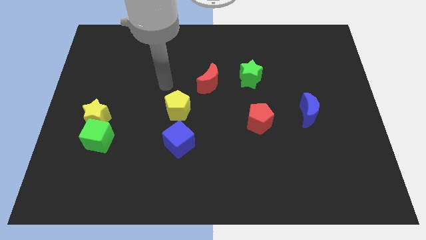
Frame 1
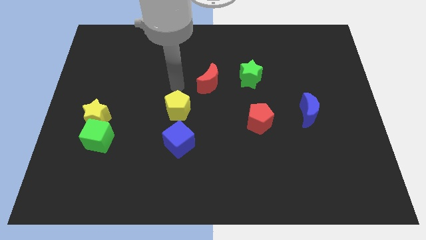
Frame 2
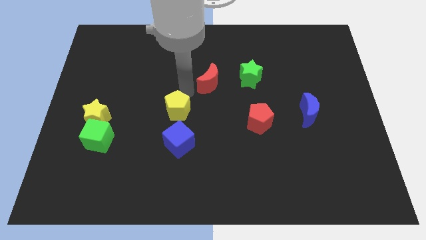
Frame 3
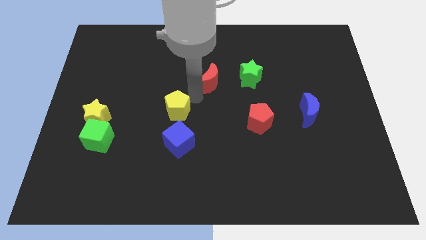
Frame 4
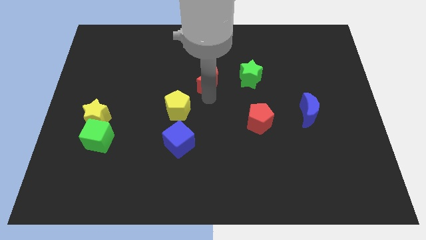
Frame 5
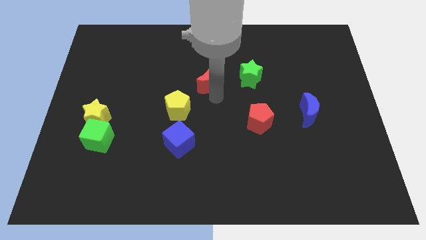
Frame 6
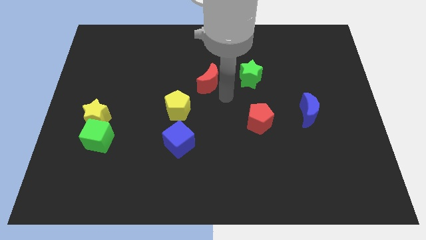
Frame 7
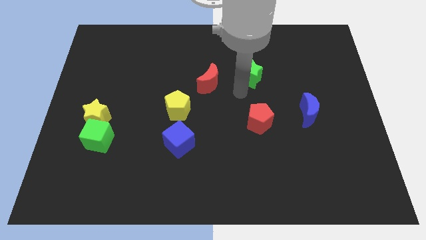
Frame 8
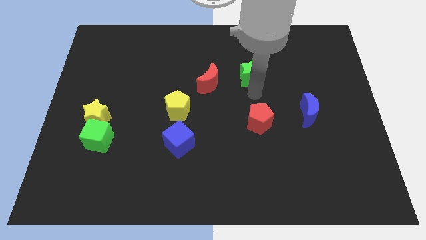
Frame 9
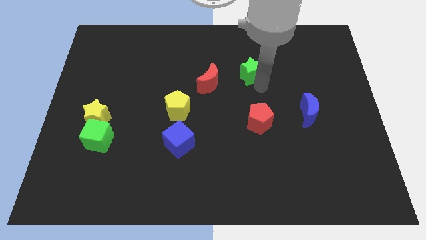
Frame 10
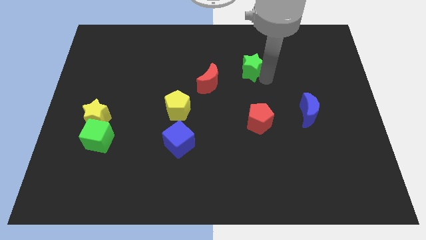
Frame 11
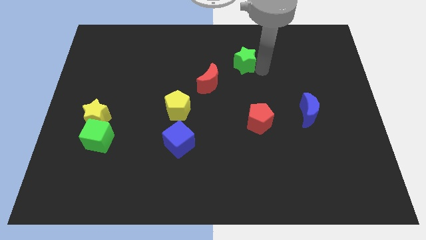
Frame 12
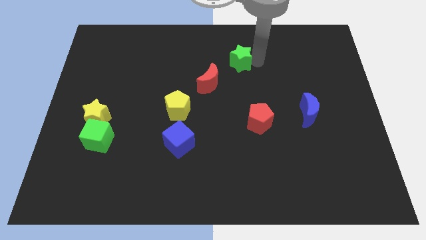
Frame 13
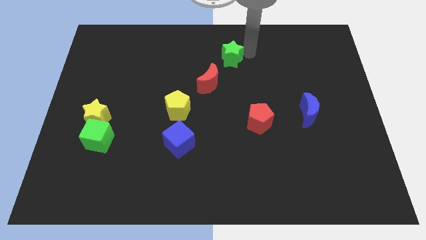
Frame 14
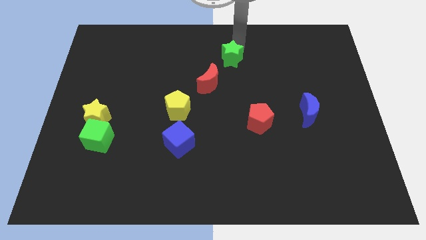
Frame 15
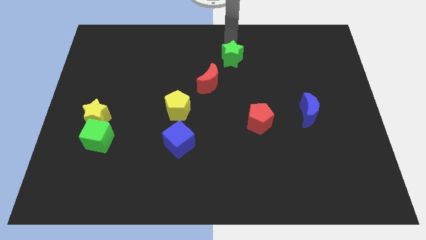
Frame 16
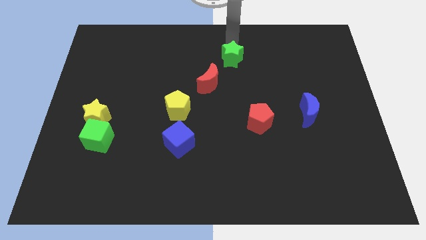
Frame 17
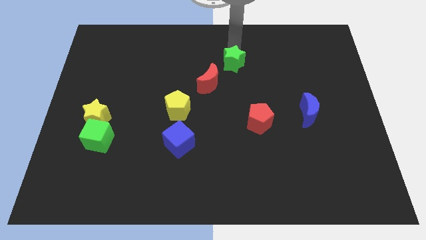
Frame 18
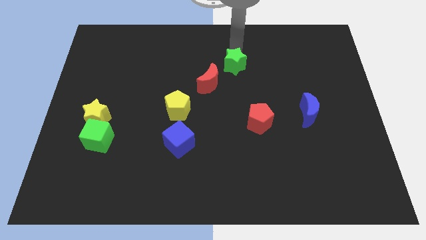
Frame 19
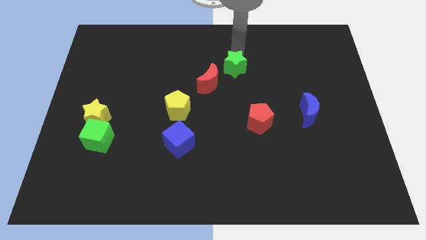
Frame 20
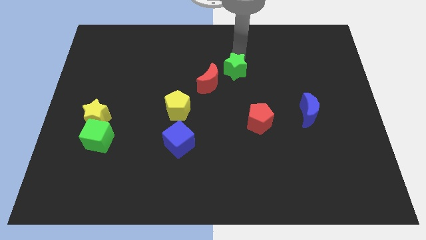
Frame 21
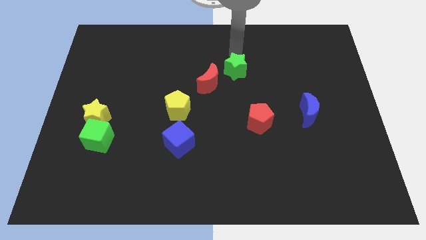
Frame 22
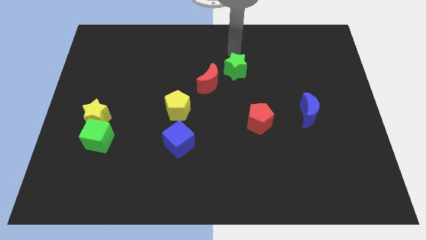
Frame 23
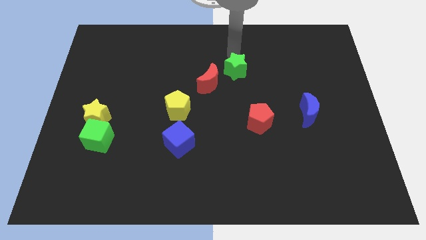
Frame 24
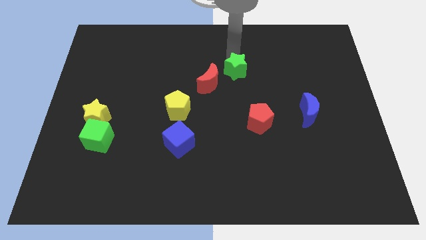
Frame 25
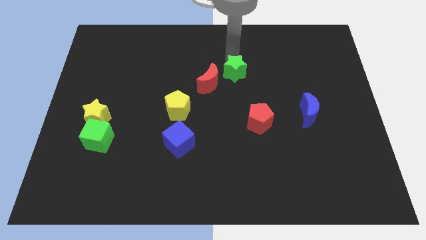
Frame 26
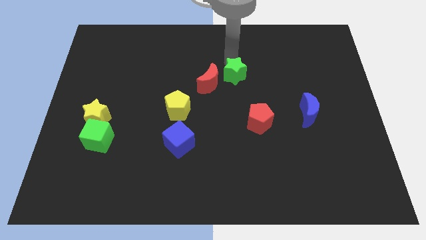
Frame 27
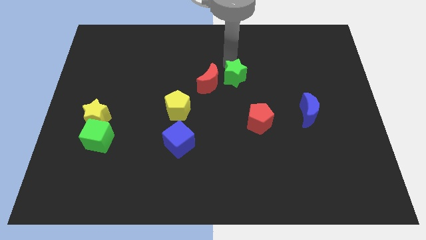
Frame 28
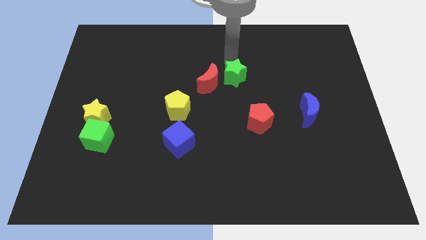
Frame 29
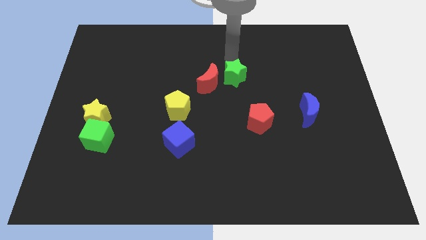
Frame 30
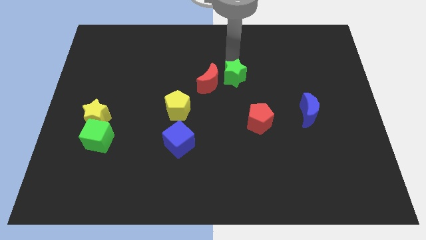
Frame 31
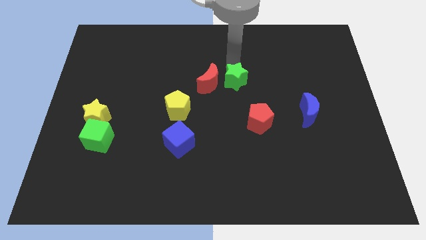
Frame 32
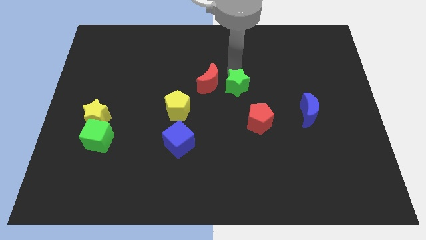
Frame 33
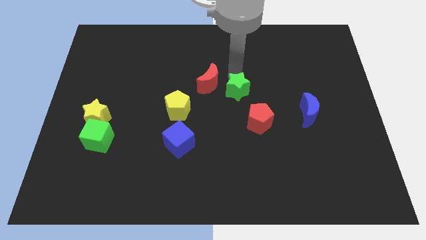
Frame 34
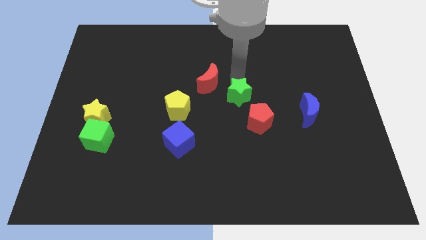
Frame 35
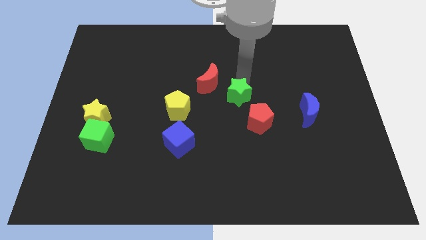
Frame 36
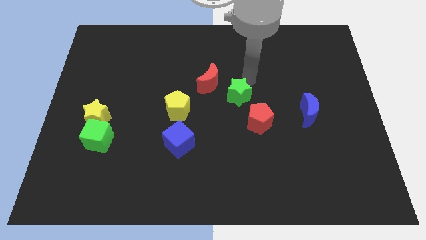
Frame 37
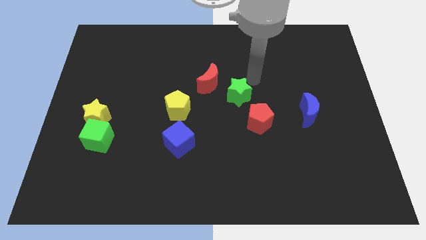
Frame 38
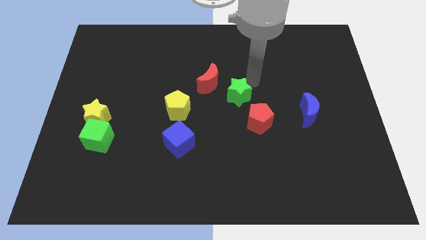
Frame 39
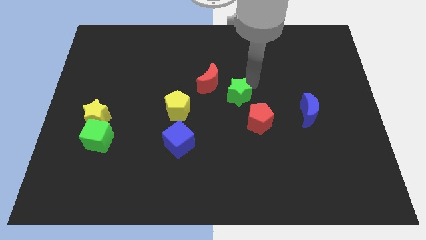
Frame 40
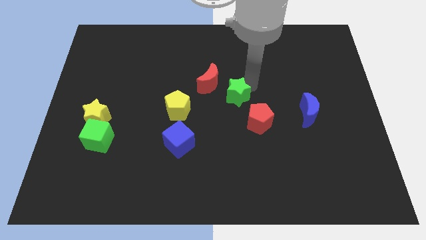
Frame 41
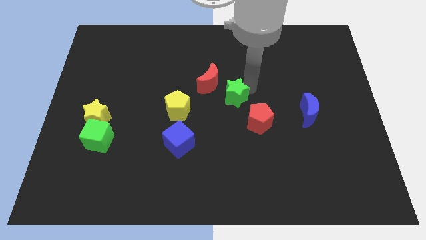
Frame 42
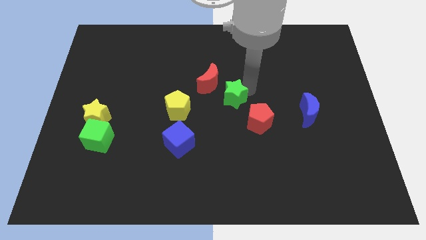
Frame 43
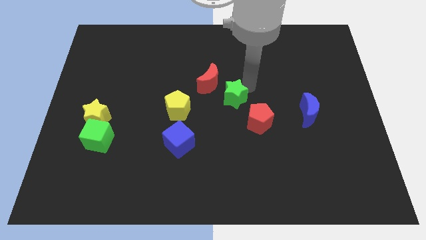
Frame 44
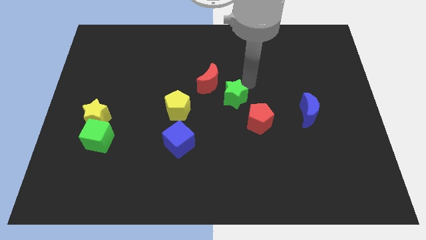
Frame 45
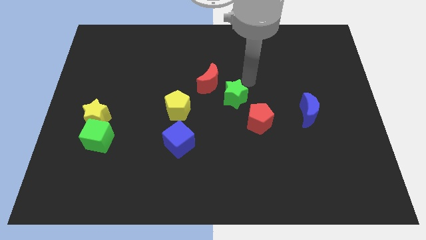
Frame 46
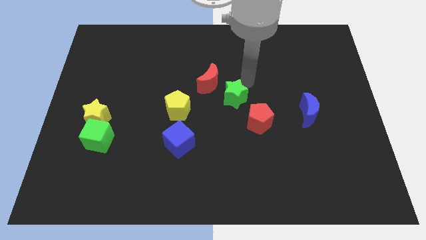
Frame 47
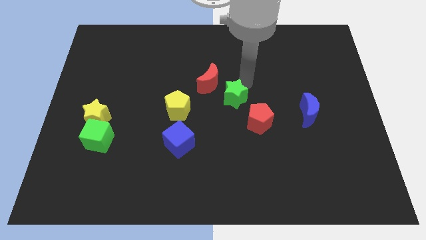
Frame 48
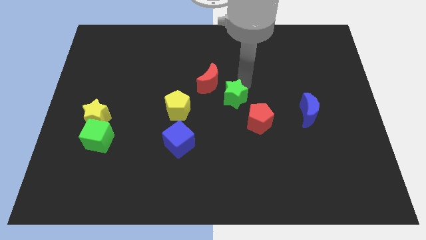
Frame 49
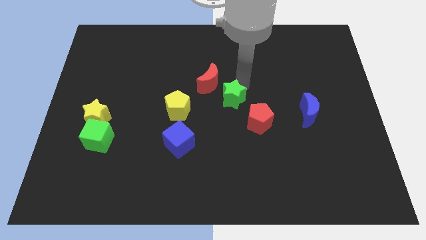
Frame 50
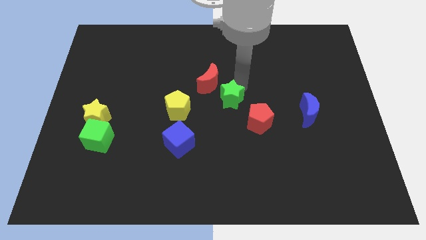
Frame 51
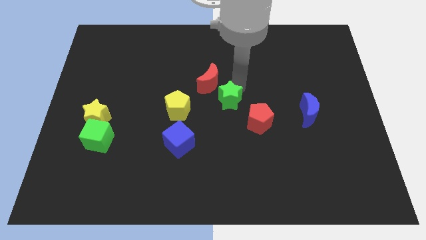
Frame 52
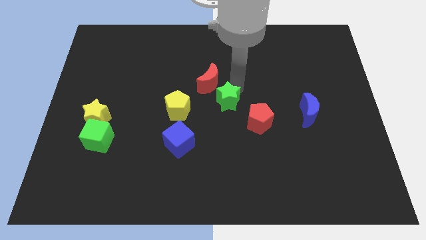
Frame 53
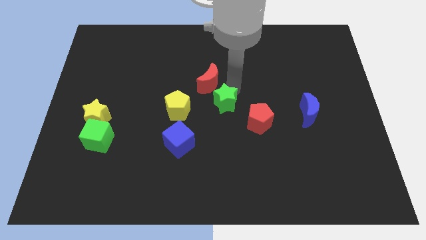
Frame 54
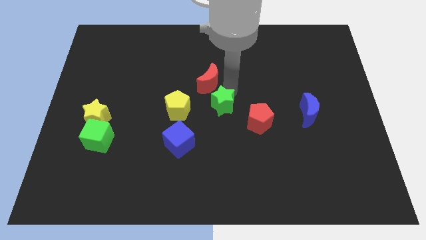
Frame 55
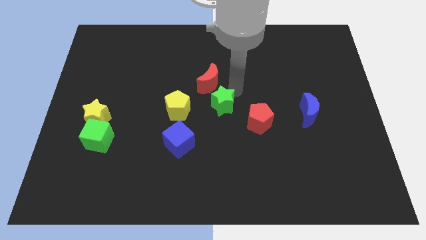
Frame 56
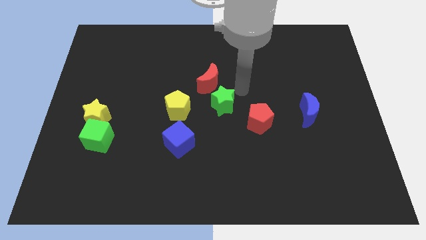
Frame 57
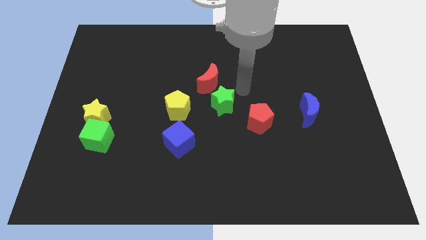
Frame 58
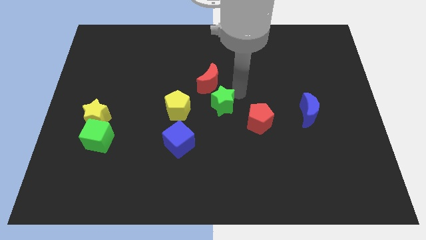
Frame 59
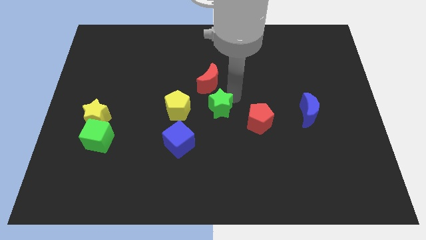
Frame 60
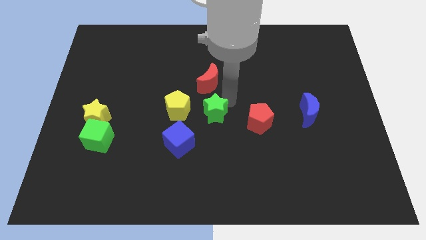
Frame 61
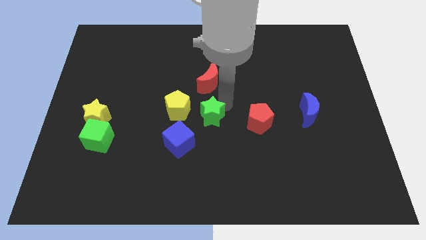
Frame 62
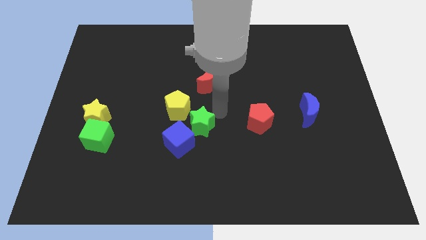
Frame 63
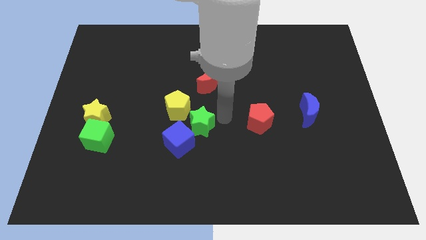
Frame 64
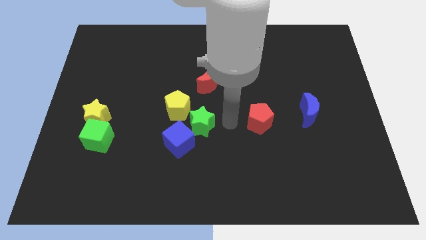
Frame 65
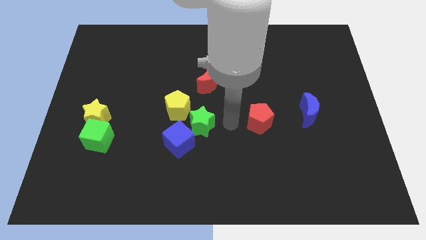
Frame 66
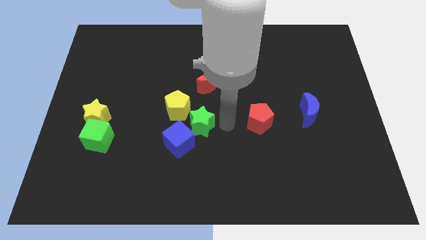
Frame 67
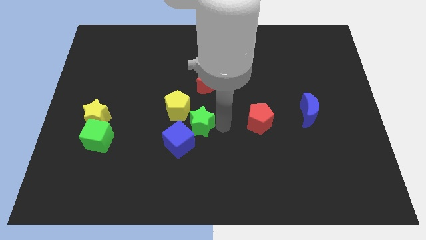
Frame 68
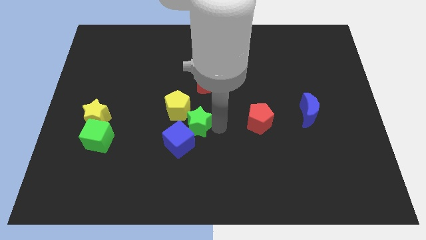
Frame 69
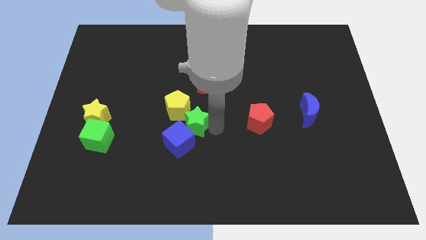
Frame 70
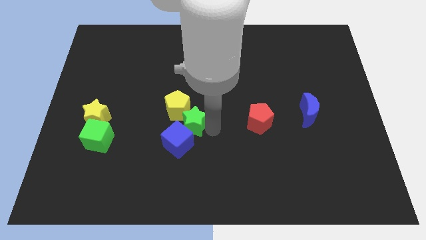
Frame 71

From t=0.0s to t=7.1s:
push the green star downwards and to the left

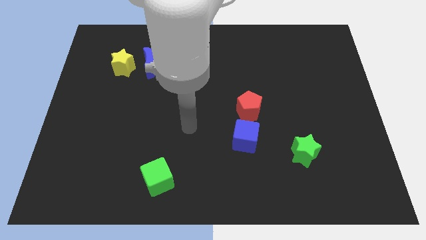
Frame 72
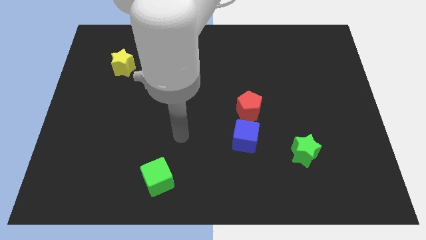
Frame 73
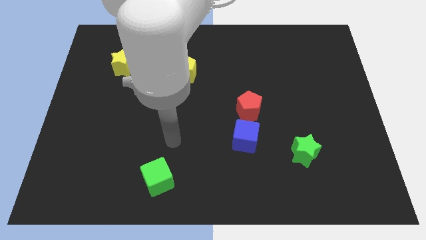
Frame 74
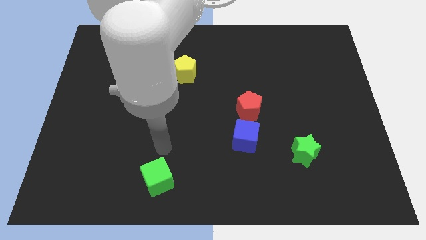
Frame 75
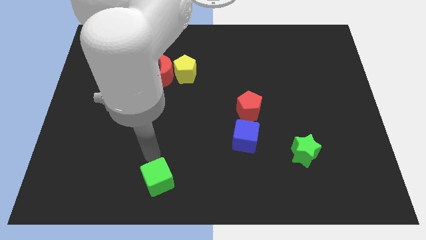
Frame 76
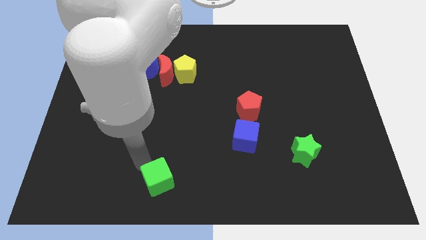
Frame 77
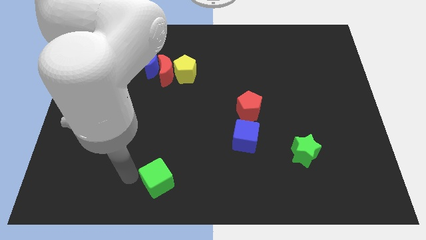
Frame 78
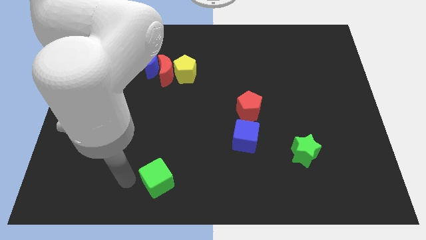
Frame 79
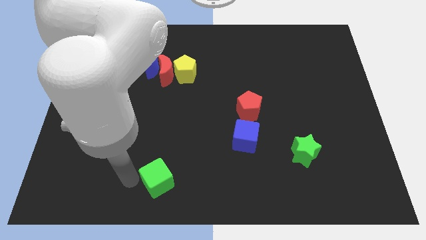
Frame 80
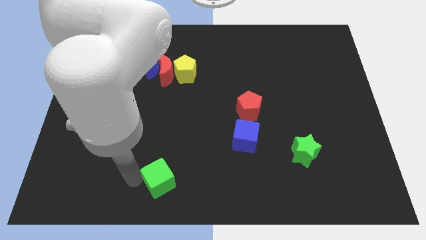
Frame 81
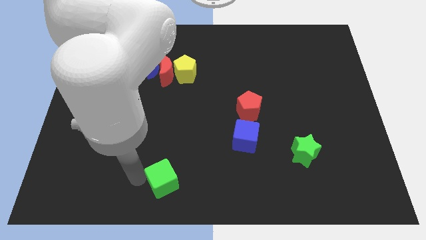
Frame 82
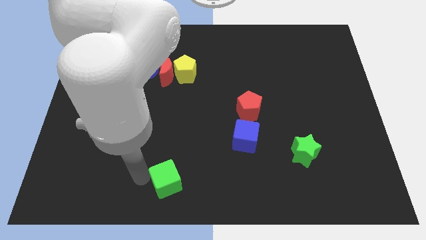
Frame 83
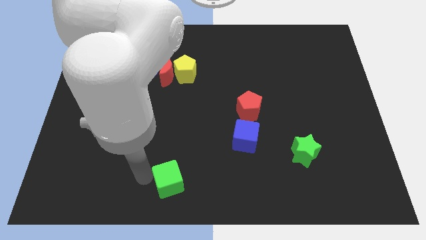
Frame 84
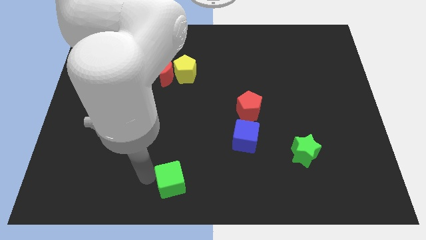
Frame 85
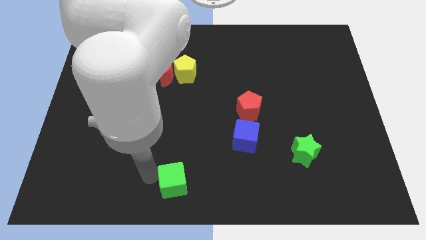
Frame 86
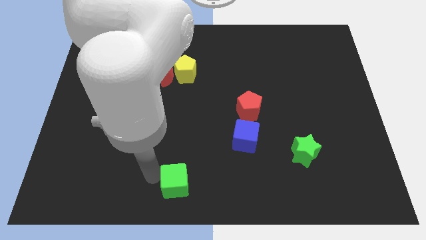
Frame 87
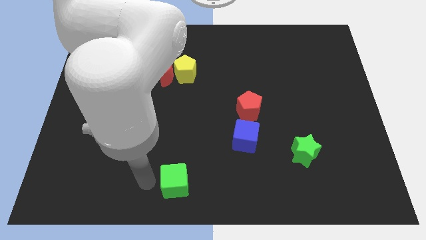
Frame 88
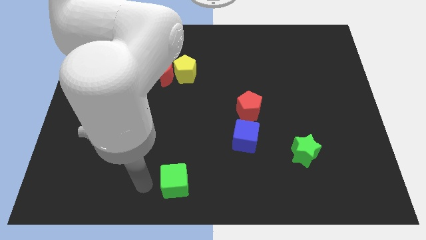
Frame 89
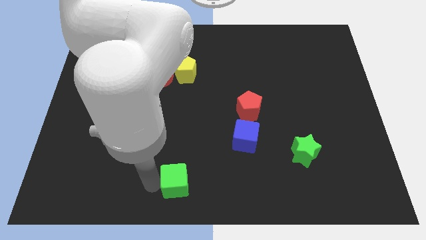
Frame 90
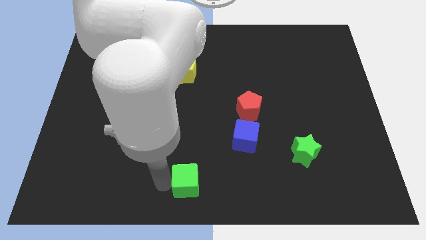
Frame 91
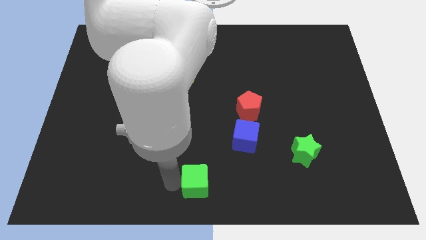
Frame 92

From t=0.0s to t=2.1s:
move the green cube right slightly
